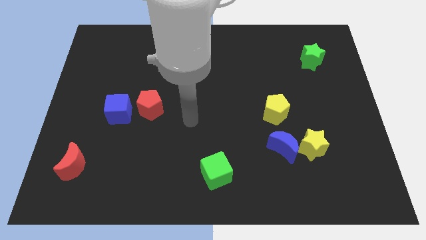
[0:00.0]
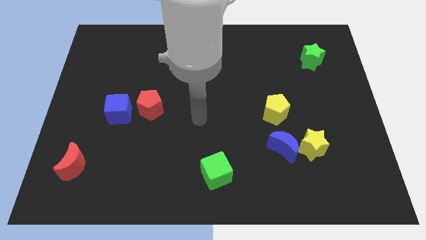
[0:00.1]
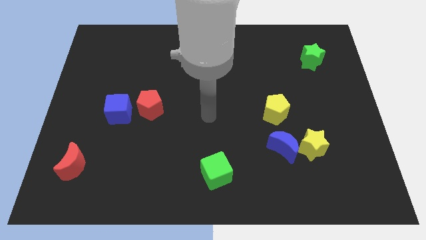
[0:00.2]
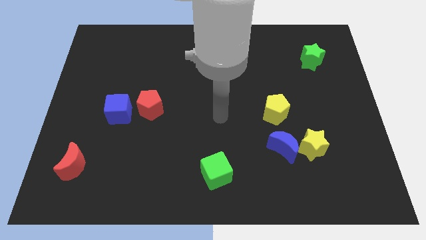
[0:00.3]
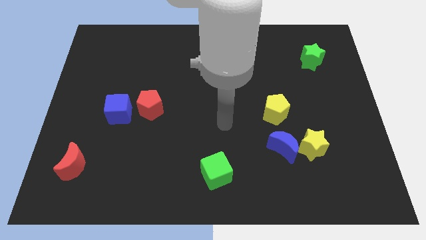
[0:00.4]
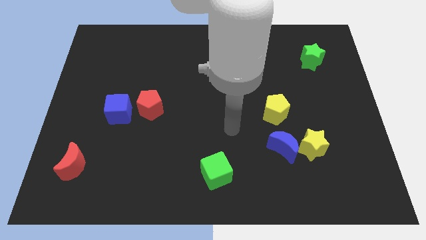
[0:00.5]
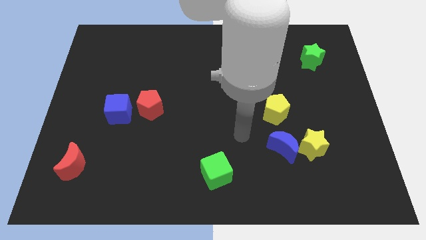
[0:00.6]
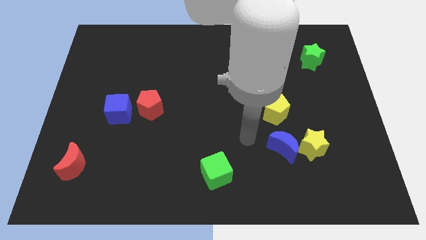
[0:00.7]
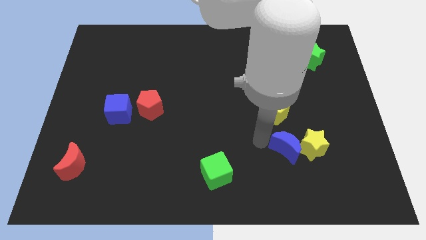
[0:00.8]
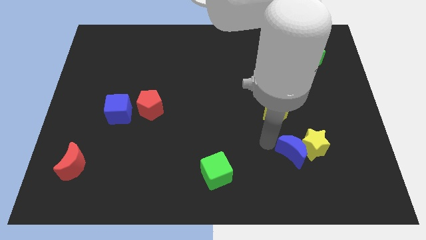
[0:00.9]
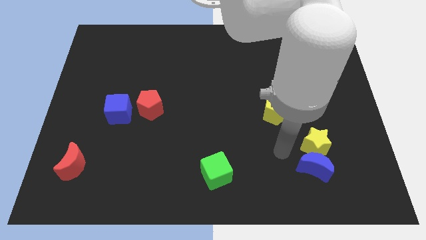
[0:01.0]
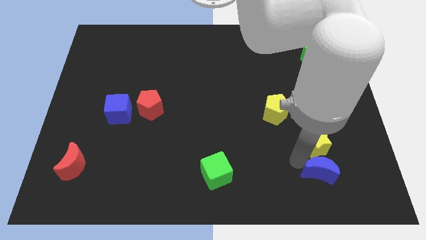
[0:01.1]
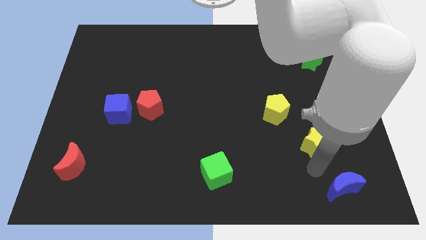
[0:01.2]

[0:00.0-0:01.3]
pull the yellow star apart from the blue moon

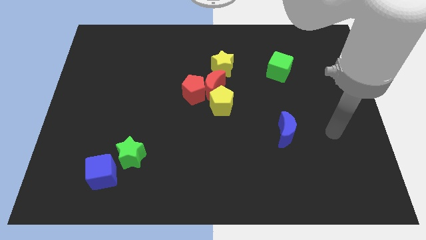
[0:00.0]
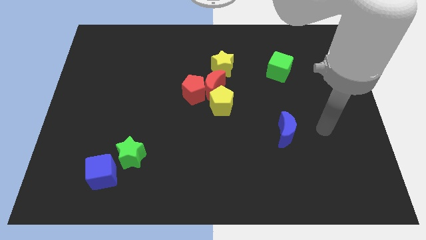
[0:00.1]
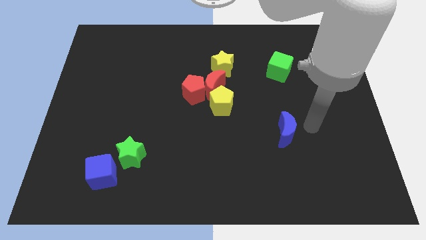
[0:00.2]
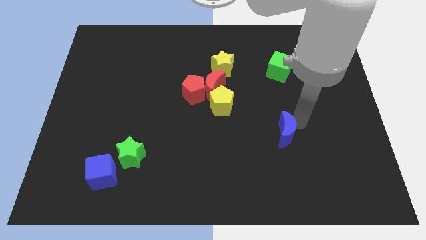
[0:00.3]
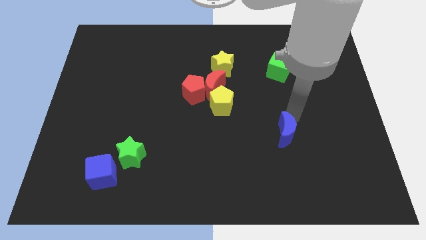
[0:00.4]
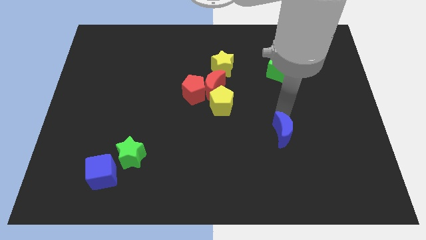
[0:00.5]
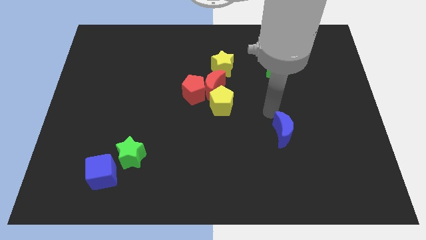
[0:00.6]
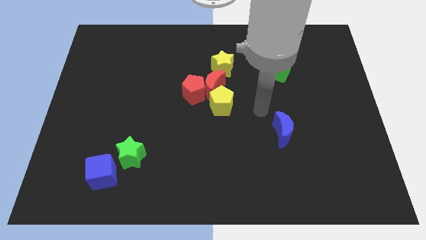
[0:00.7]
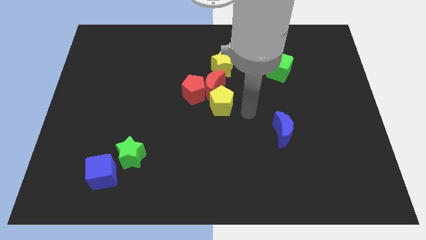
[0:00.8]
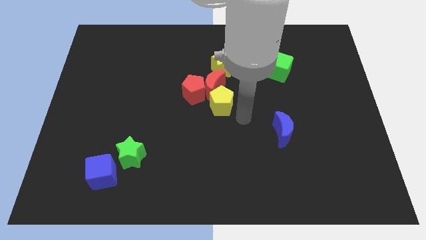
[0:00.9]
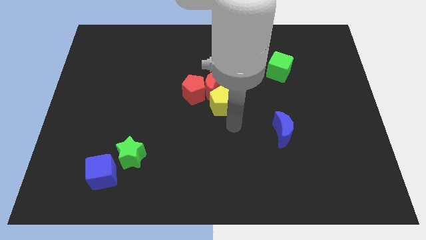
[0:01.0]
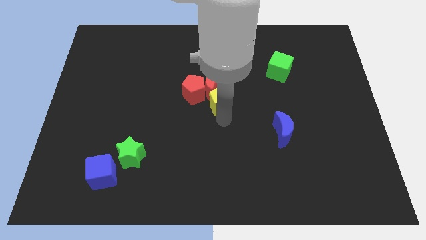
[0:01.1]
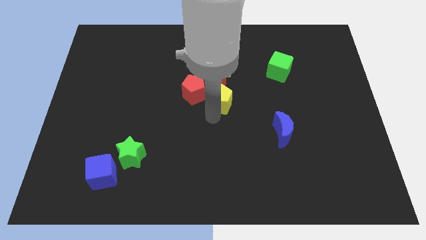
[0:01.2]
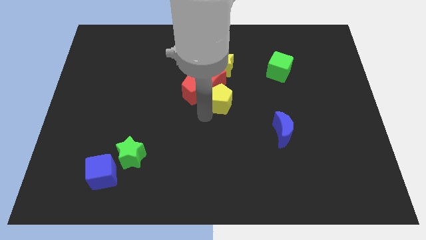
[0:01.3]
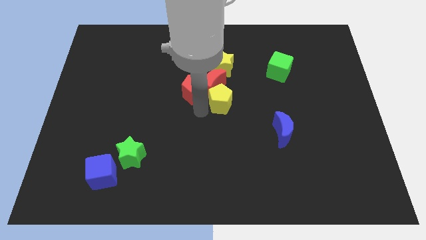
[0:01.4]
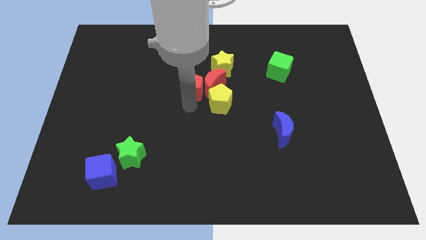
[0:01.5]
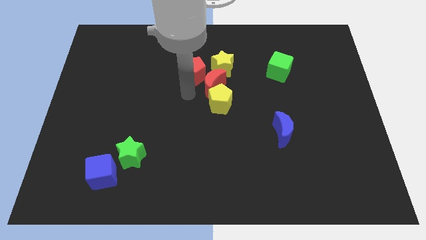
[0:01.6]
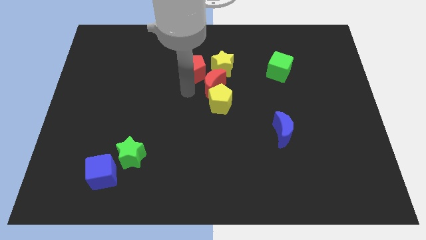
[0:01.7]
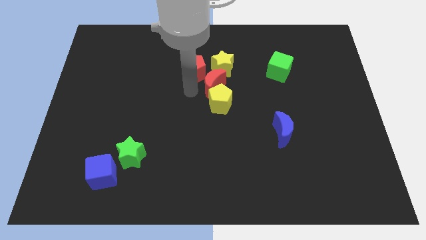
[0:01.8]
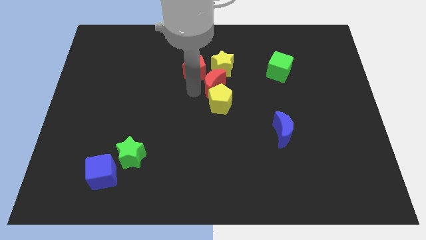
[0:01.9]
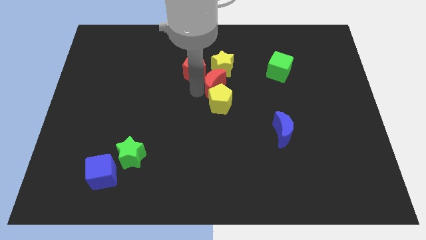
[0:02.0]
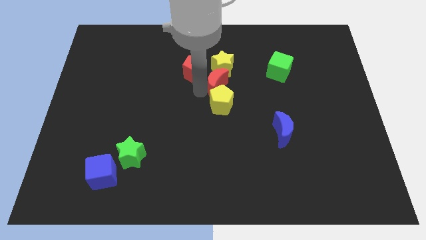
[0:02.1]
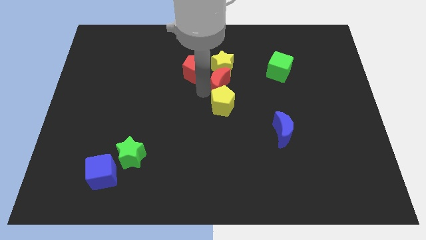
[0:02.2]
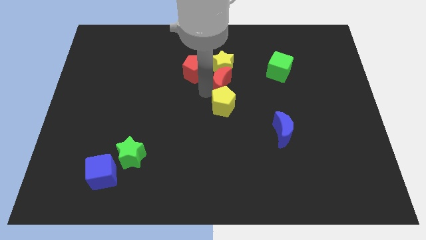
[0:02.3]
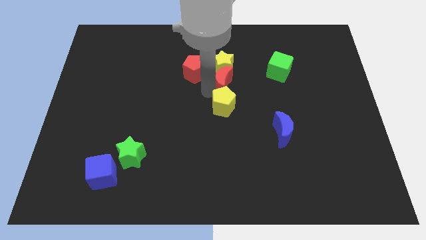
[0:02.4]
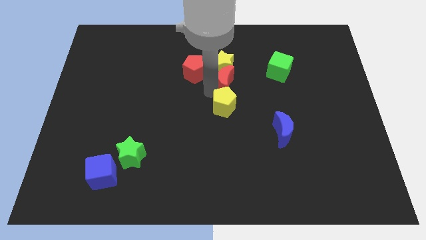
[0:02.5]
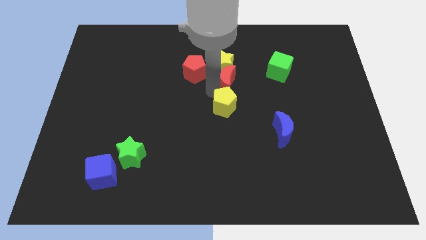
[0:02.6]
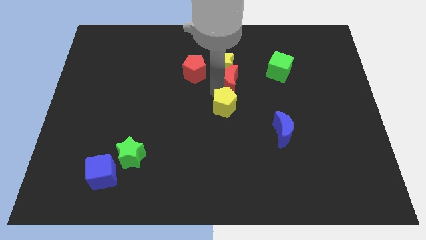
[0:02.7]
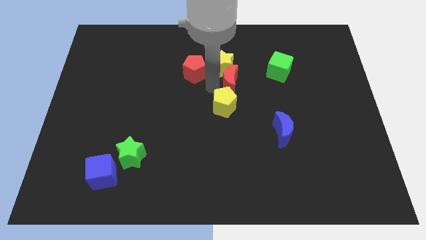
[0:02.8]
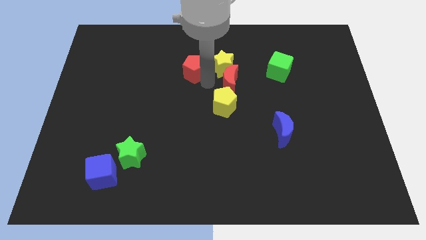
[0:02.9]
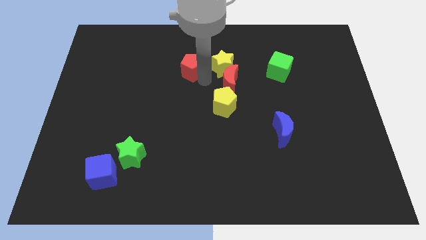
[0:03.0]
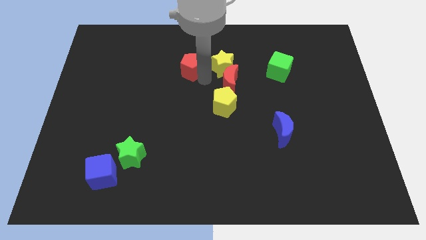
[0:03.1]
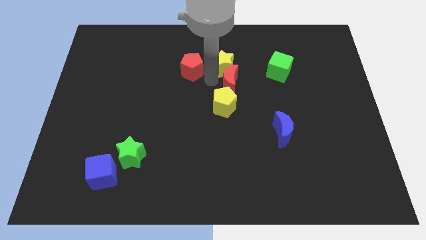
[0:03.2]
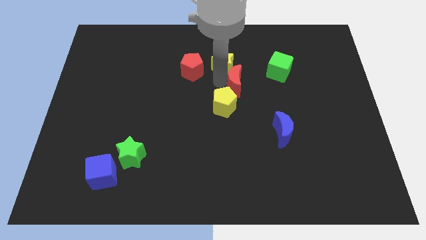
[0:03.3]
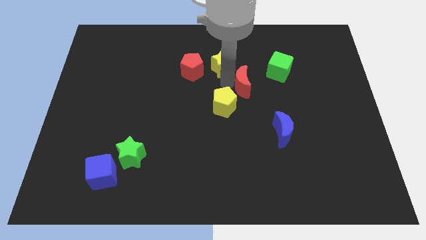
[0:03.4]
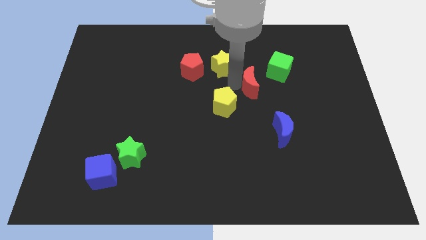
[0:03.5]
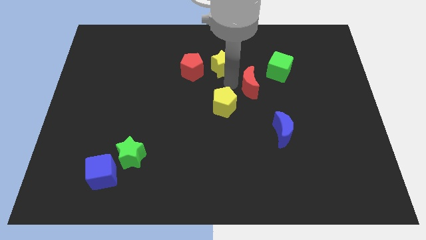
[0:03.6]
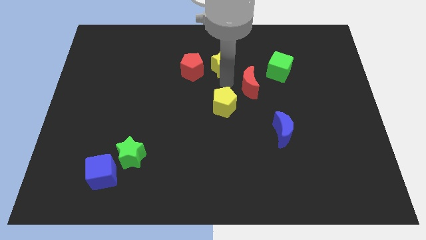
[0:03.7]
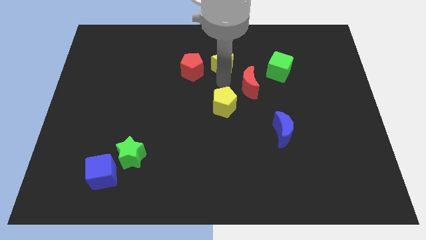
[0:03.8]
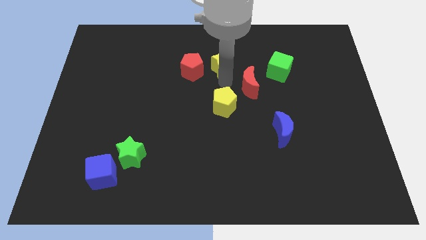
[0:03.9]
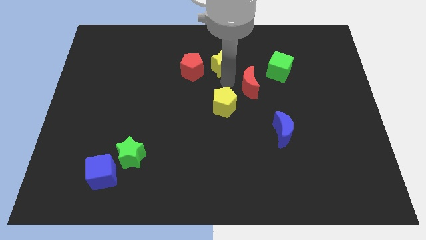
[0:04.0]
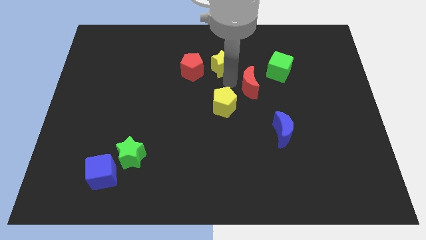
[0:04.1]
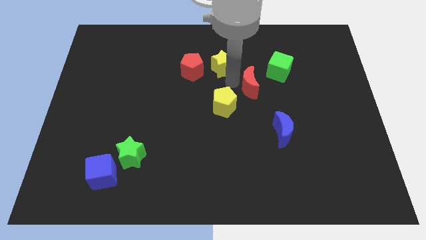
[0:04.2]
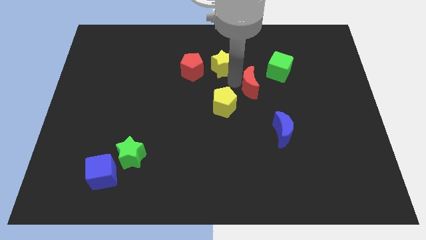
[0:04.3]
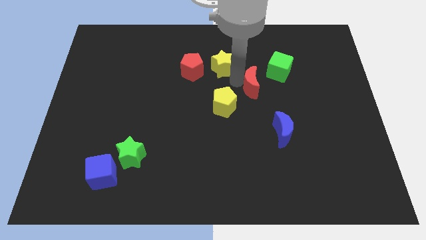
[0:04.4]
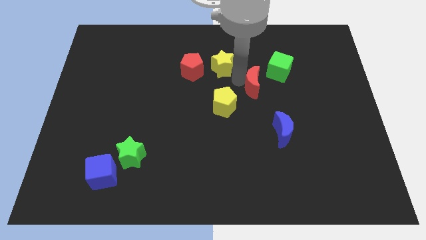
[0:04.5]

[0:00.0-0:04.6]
move the red moon away from the red pentagon, yellow pentagon, and yellow star

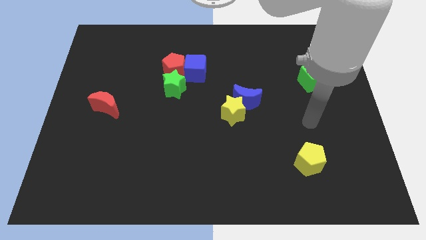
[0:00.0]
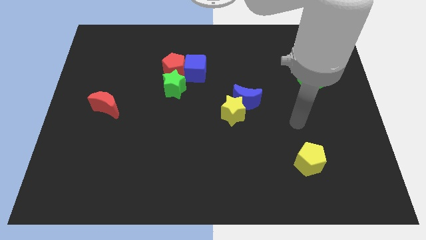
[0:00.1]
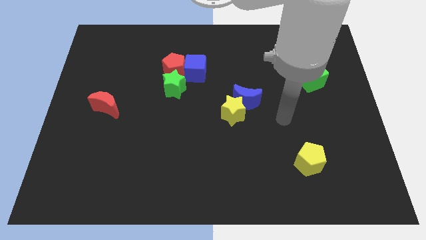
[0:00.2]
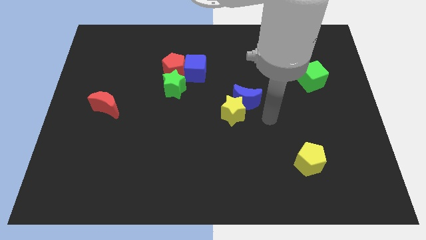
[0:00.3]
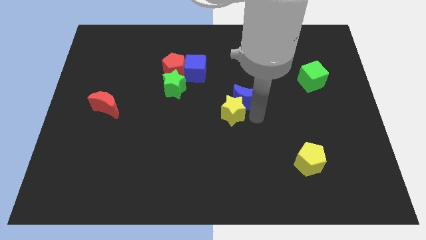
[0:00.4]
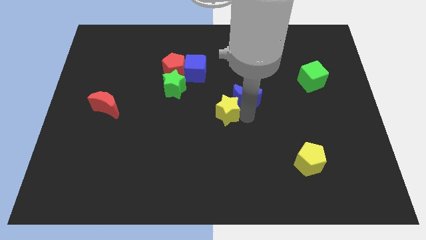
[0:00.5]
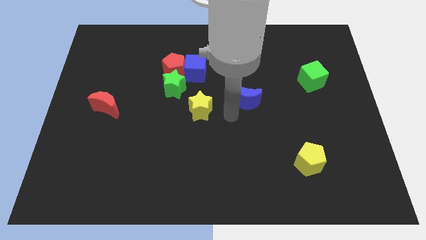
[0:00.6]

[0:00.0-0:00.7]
separate the blue moon from the yellow star

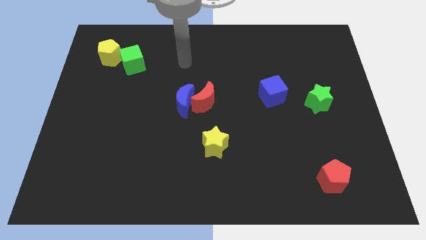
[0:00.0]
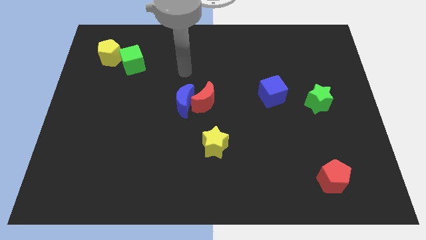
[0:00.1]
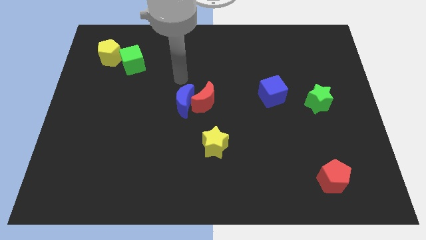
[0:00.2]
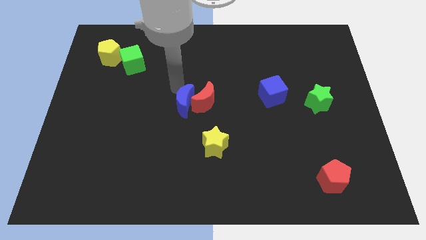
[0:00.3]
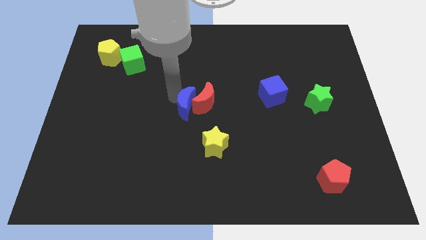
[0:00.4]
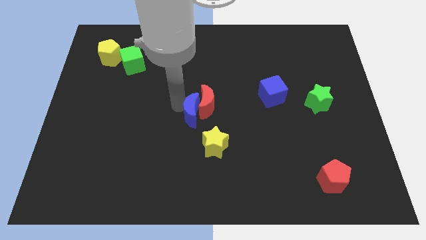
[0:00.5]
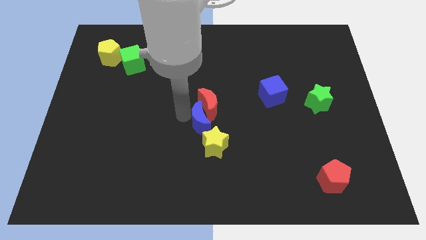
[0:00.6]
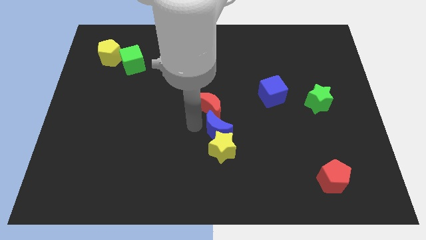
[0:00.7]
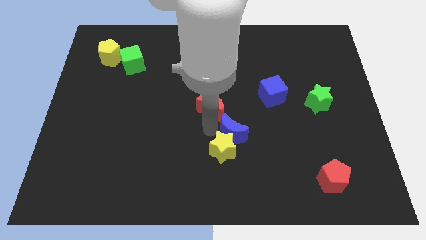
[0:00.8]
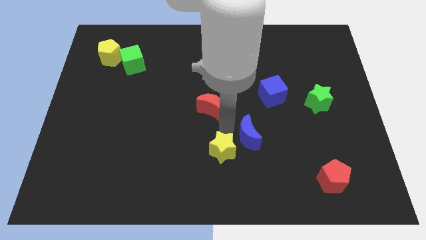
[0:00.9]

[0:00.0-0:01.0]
move the red moon away from the blue moon

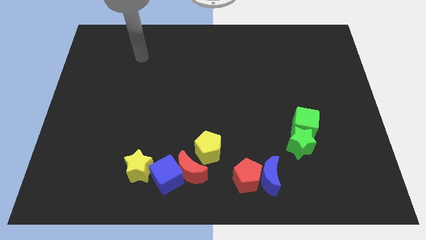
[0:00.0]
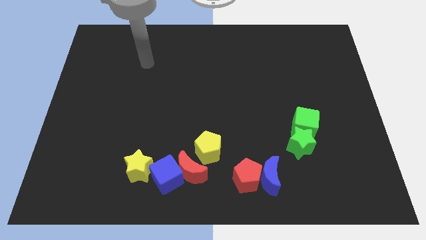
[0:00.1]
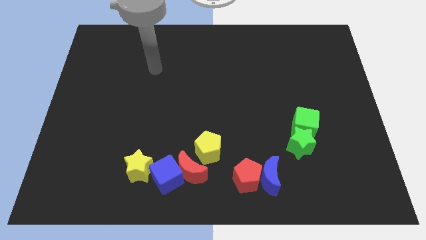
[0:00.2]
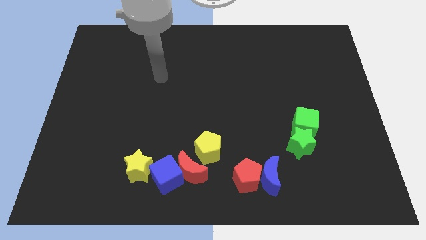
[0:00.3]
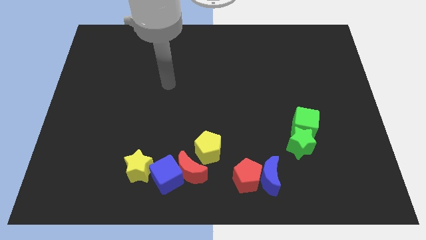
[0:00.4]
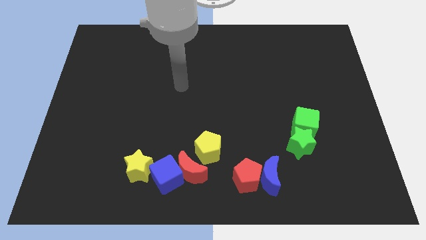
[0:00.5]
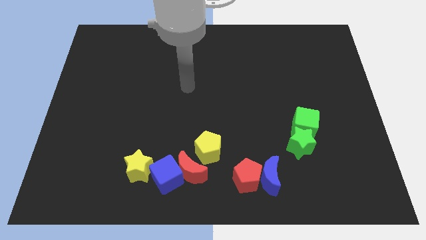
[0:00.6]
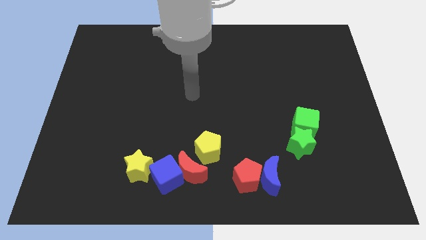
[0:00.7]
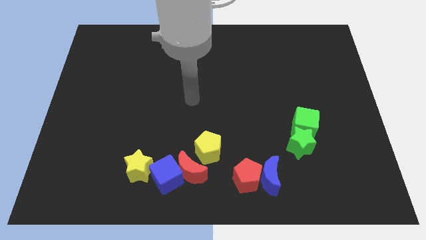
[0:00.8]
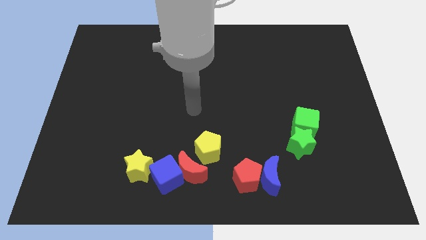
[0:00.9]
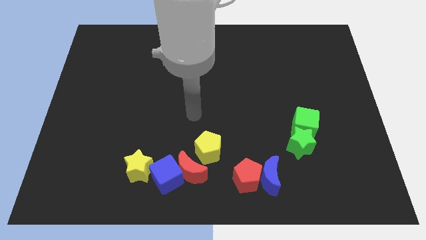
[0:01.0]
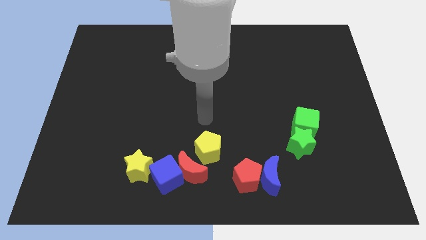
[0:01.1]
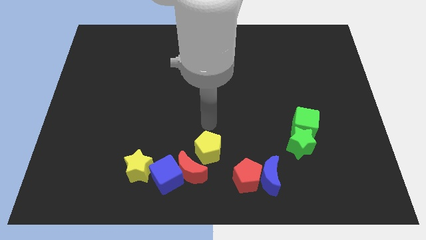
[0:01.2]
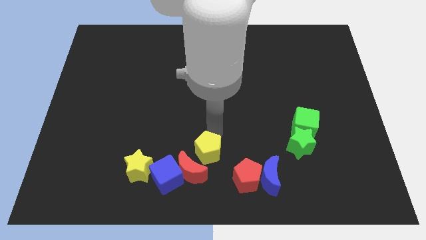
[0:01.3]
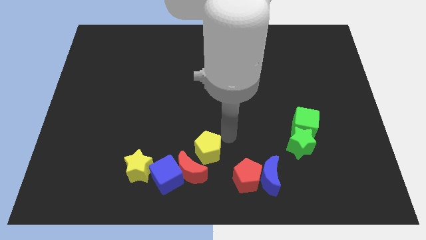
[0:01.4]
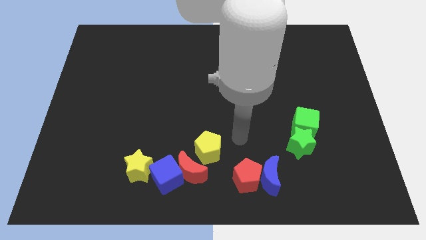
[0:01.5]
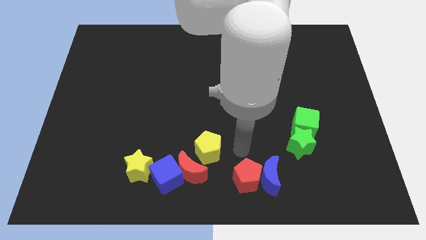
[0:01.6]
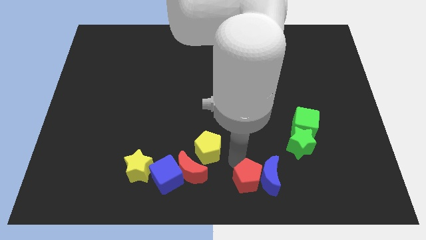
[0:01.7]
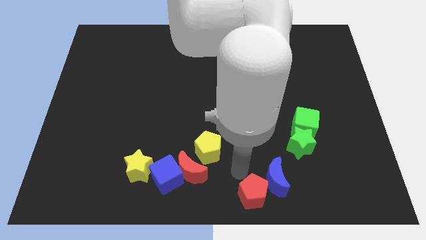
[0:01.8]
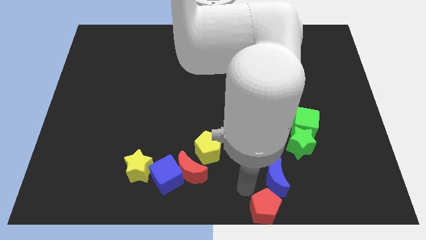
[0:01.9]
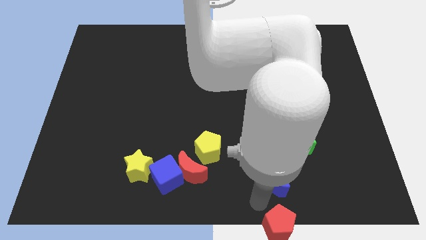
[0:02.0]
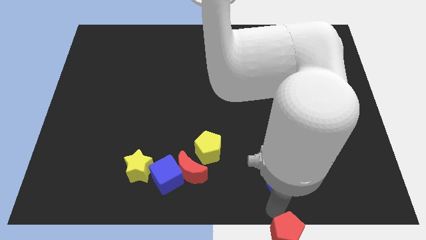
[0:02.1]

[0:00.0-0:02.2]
separate the blue moon from the red pentagon
